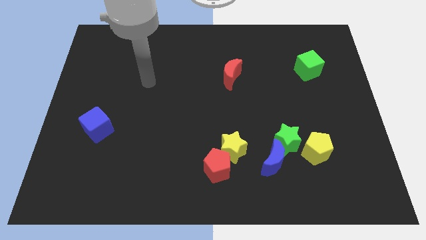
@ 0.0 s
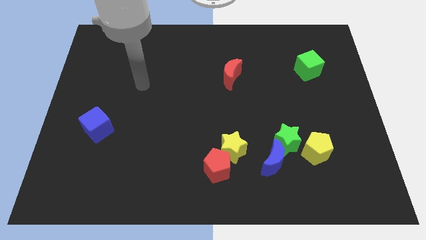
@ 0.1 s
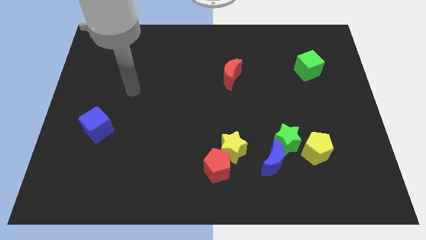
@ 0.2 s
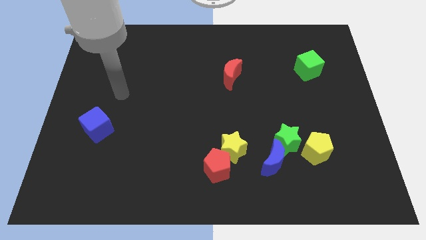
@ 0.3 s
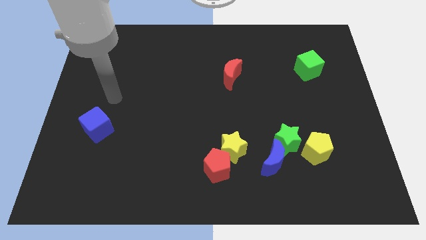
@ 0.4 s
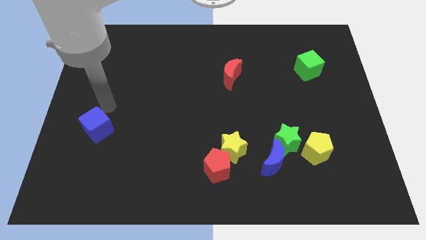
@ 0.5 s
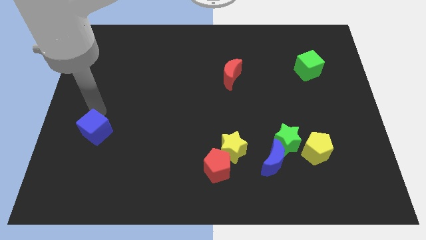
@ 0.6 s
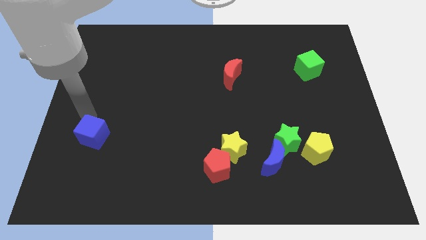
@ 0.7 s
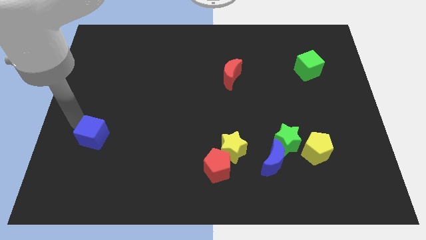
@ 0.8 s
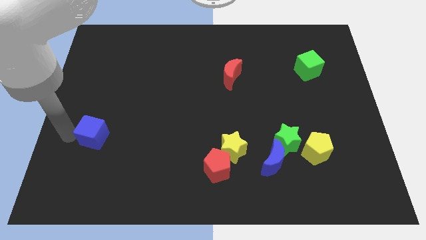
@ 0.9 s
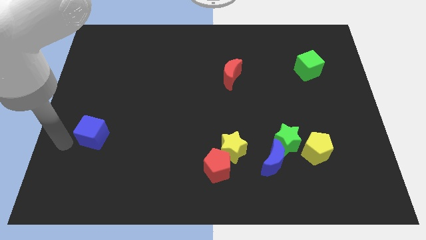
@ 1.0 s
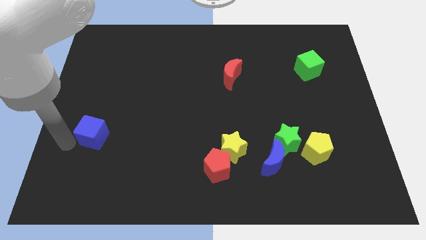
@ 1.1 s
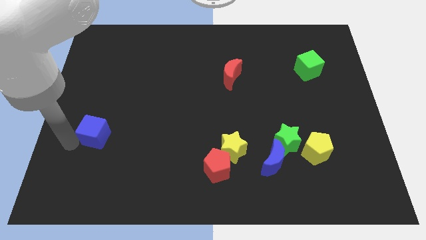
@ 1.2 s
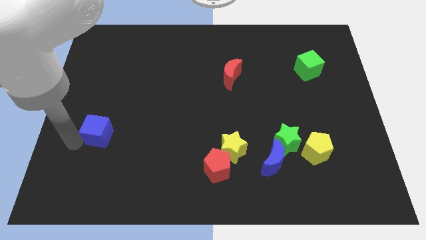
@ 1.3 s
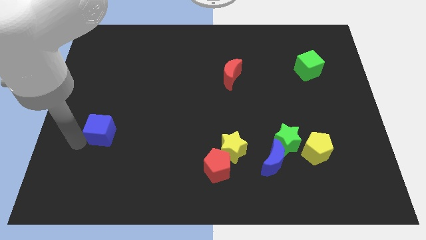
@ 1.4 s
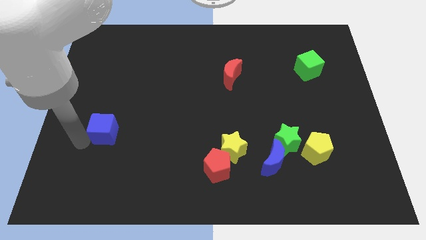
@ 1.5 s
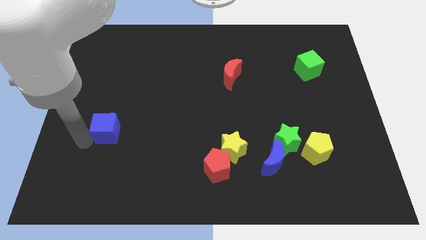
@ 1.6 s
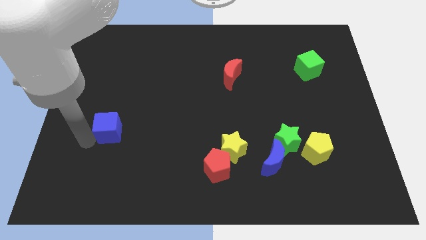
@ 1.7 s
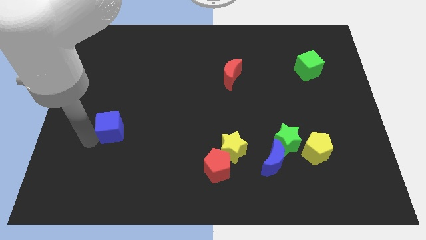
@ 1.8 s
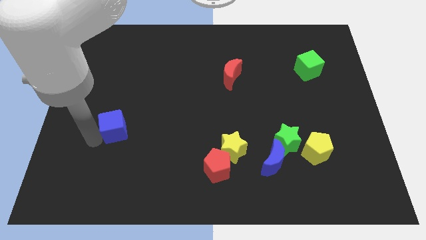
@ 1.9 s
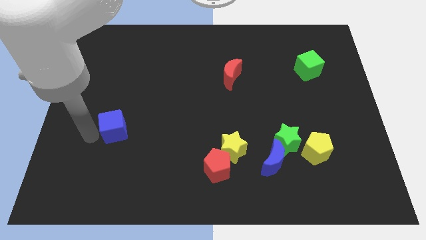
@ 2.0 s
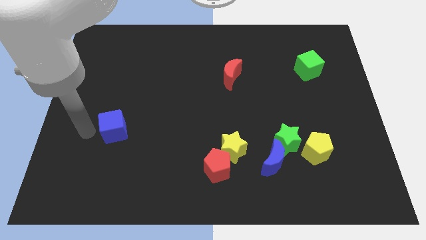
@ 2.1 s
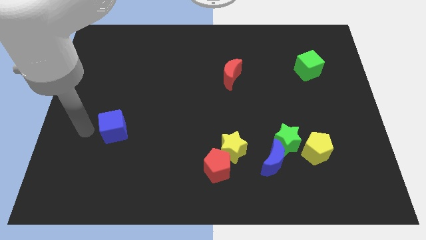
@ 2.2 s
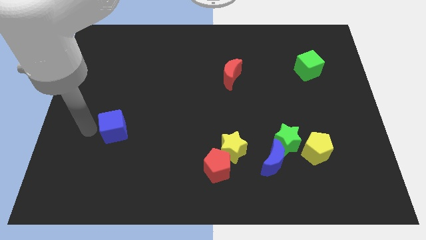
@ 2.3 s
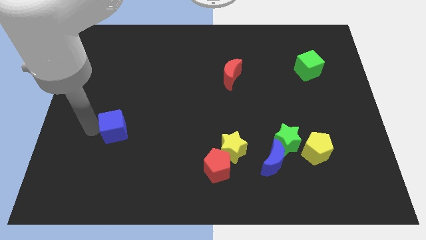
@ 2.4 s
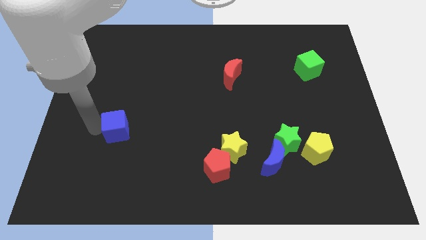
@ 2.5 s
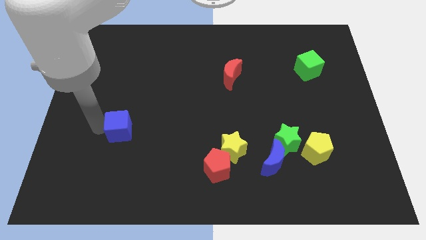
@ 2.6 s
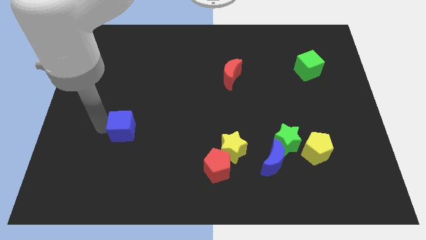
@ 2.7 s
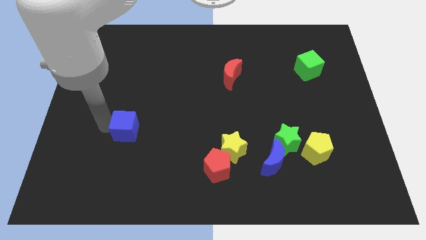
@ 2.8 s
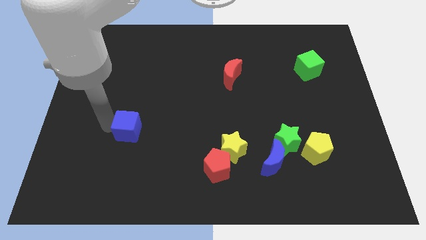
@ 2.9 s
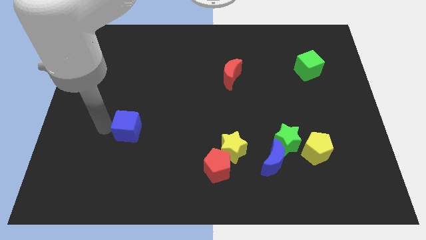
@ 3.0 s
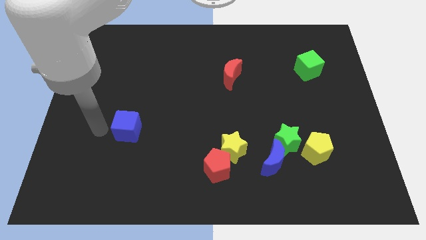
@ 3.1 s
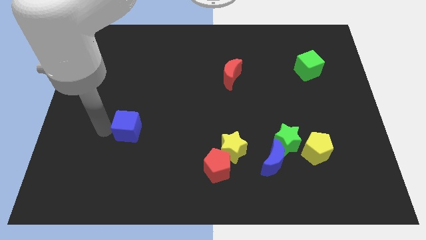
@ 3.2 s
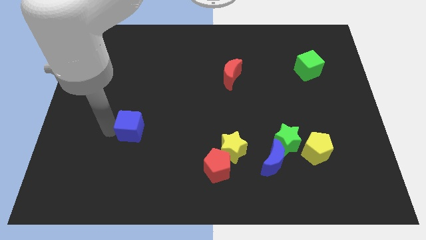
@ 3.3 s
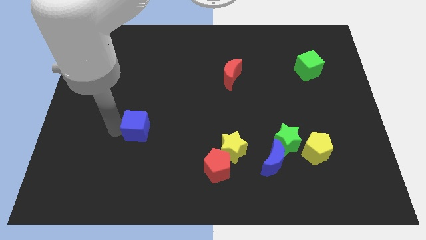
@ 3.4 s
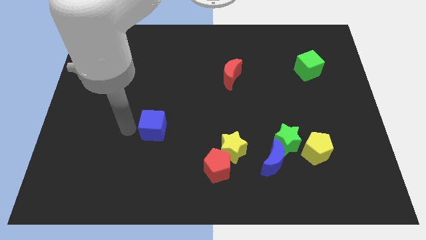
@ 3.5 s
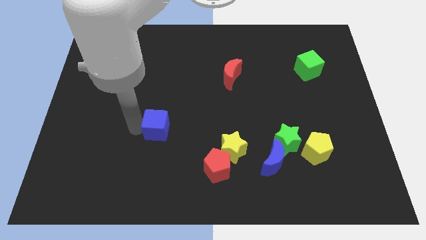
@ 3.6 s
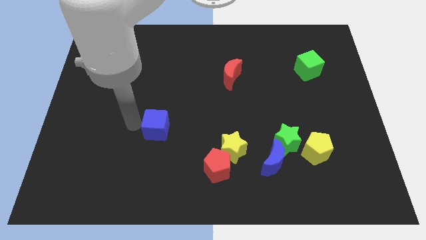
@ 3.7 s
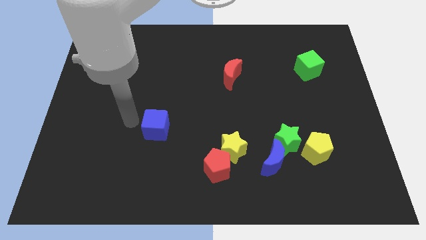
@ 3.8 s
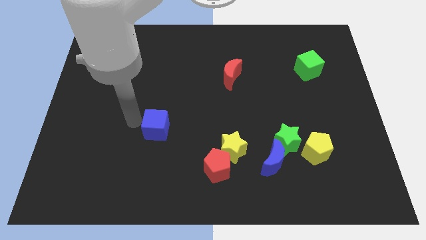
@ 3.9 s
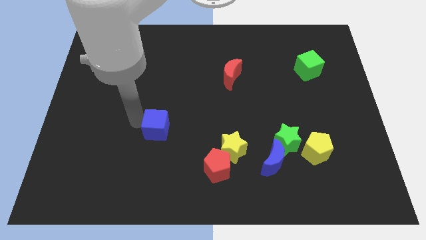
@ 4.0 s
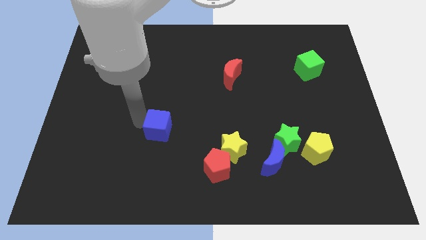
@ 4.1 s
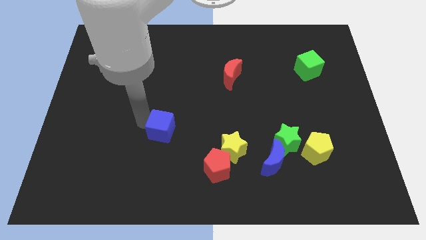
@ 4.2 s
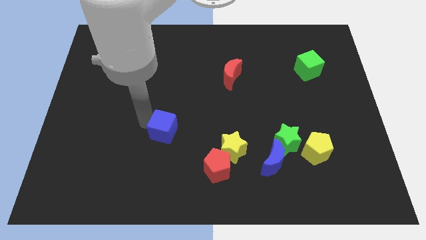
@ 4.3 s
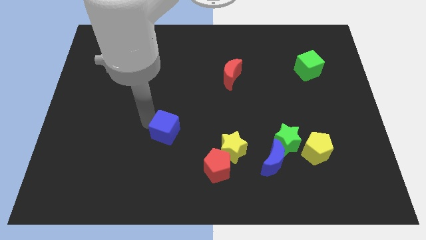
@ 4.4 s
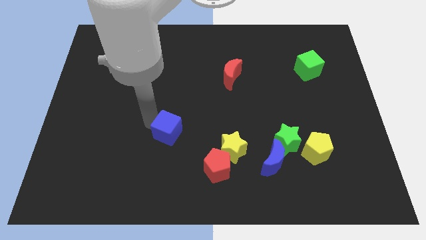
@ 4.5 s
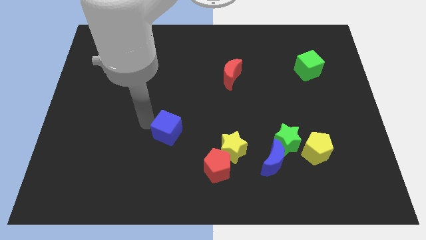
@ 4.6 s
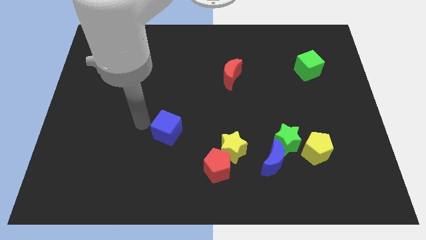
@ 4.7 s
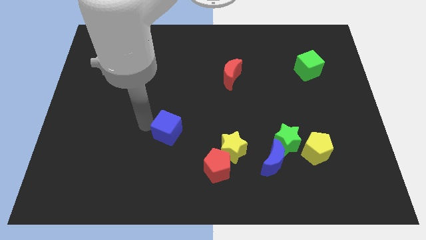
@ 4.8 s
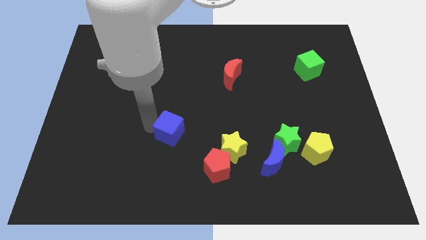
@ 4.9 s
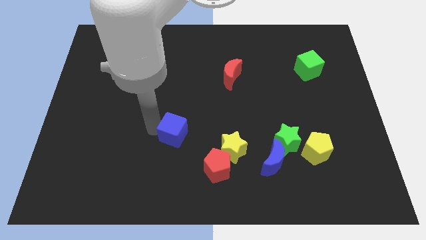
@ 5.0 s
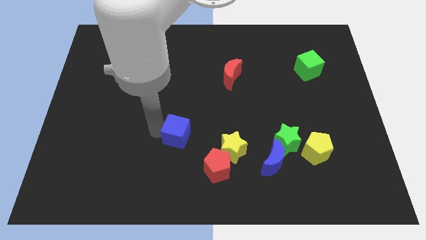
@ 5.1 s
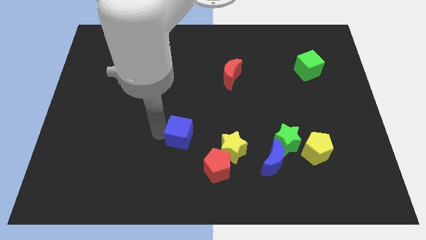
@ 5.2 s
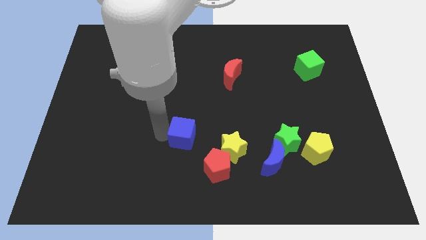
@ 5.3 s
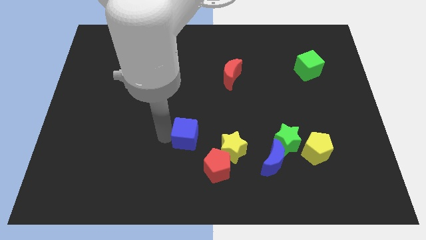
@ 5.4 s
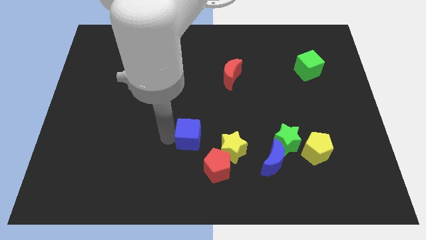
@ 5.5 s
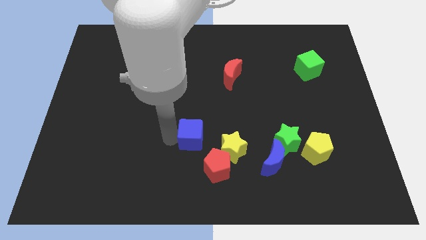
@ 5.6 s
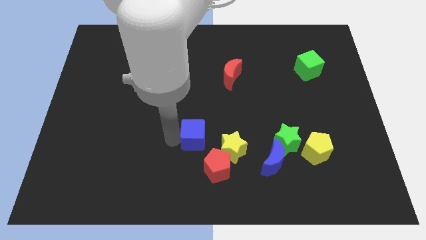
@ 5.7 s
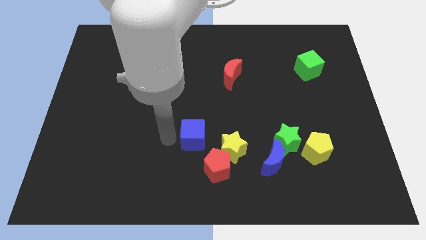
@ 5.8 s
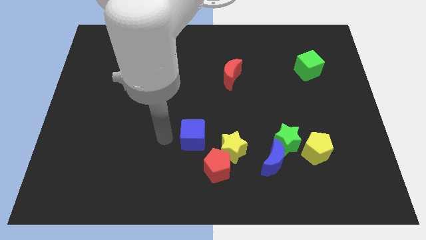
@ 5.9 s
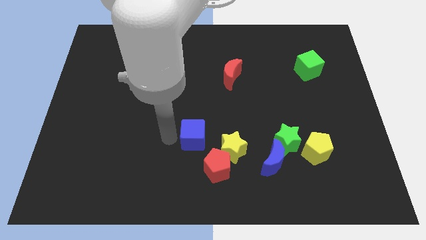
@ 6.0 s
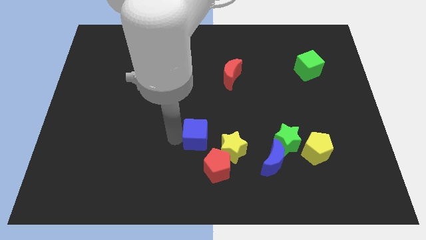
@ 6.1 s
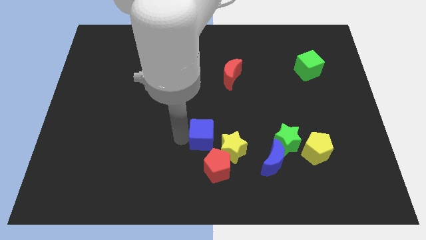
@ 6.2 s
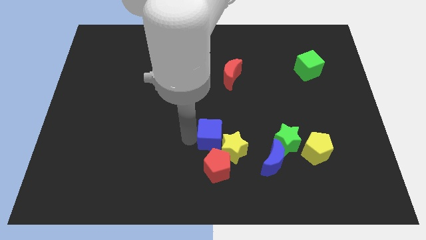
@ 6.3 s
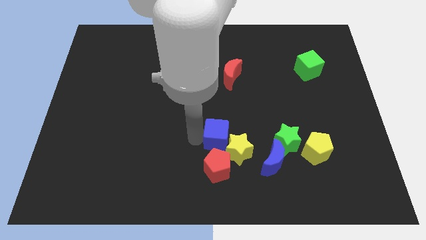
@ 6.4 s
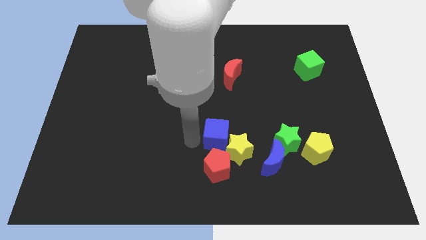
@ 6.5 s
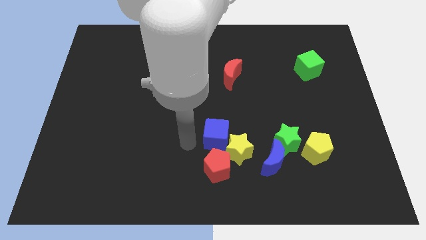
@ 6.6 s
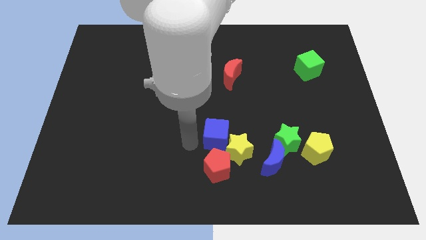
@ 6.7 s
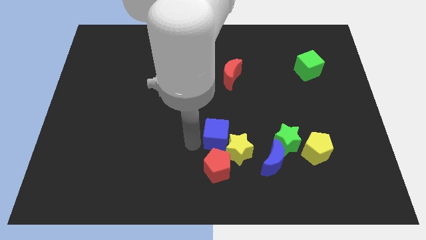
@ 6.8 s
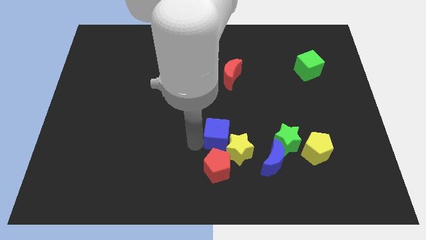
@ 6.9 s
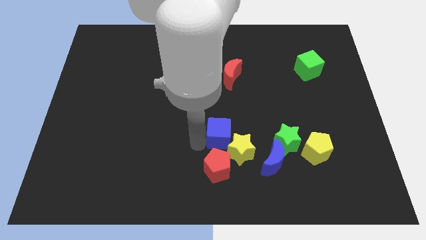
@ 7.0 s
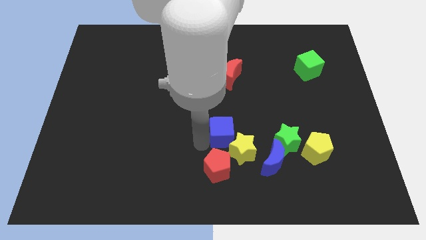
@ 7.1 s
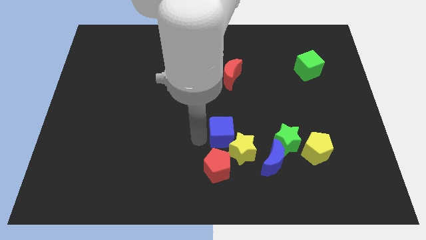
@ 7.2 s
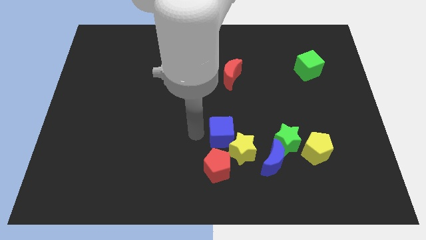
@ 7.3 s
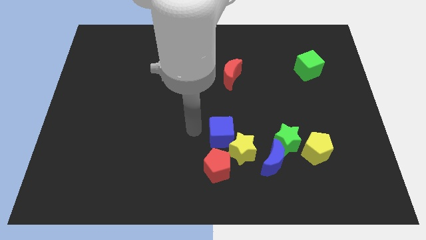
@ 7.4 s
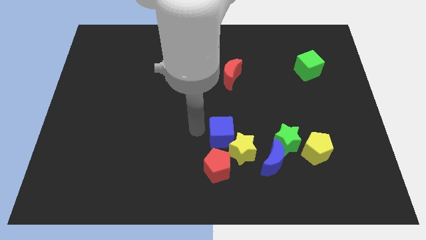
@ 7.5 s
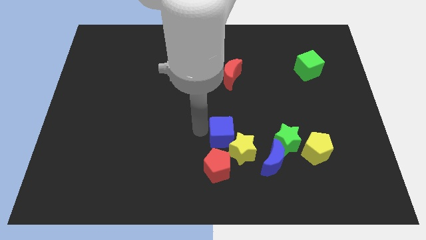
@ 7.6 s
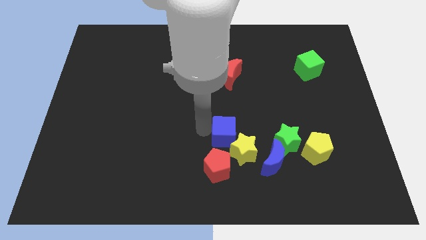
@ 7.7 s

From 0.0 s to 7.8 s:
put the blue cube to the top left of the blue moon
